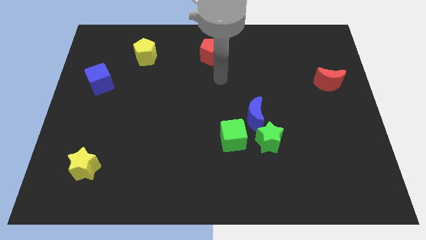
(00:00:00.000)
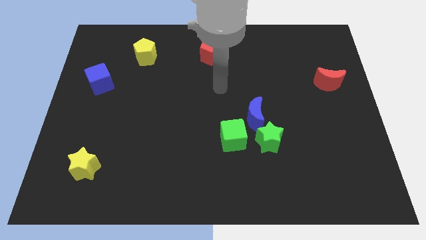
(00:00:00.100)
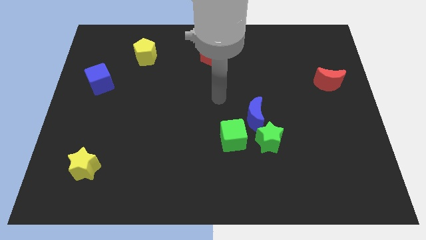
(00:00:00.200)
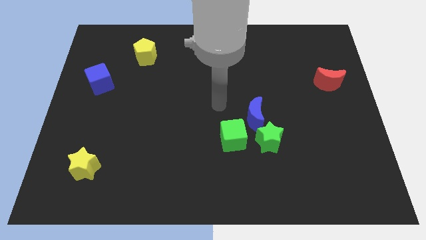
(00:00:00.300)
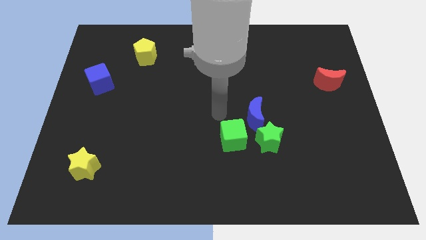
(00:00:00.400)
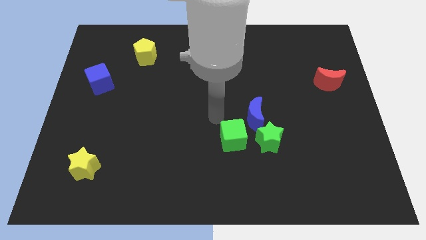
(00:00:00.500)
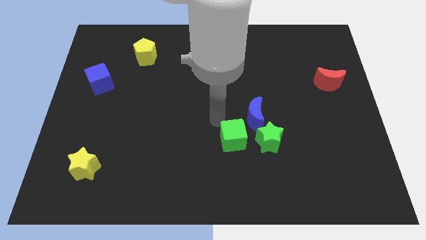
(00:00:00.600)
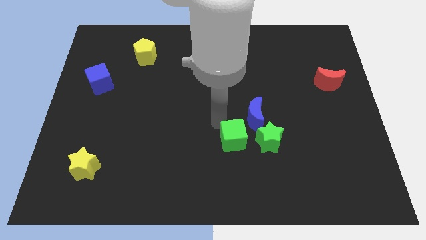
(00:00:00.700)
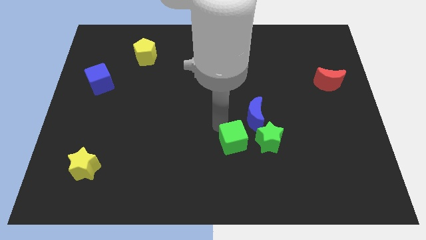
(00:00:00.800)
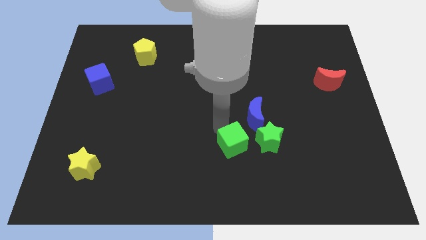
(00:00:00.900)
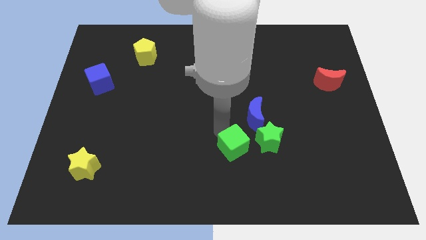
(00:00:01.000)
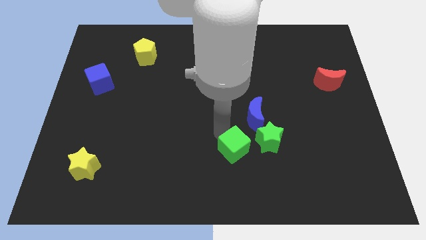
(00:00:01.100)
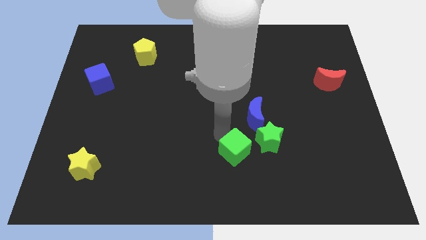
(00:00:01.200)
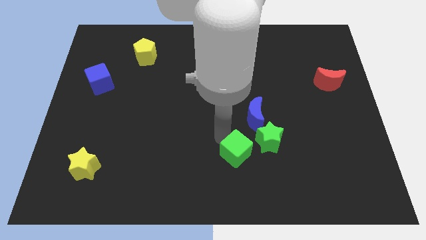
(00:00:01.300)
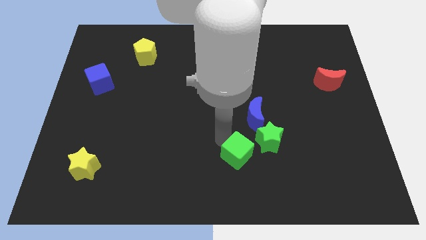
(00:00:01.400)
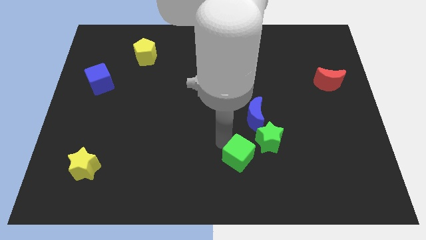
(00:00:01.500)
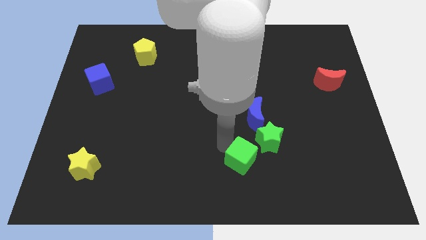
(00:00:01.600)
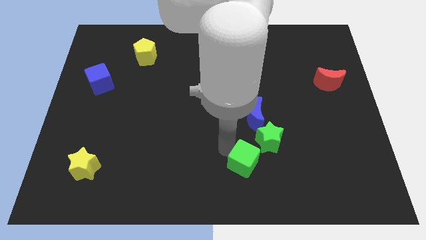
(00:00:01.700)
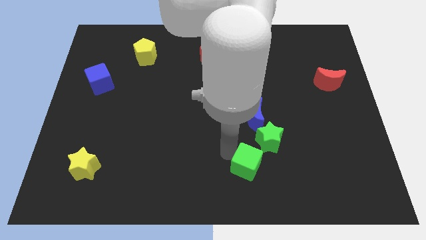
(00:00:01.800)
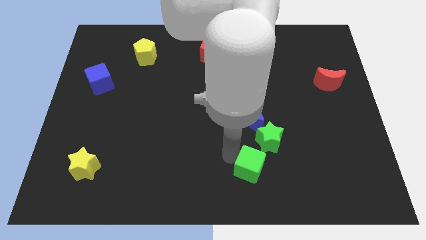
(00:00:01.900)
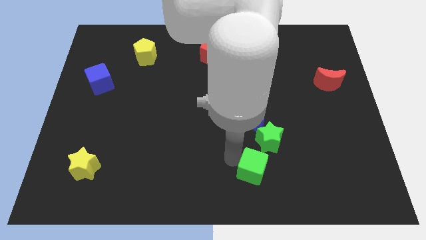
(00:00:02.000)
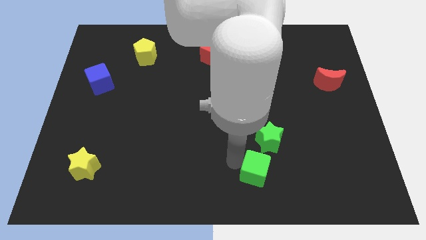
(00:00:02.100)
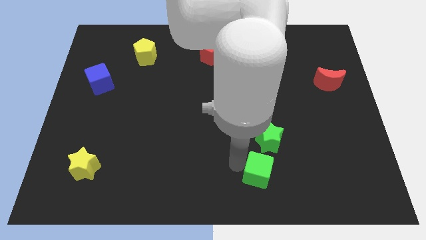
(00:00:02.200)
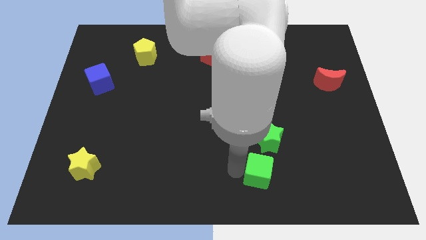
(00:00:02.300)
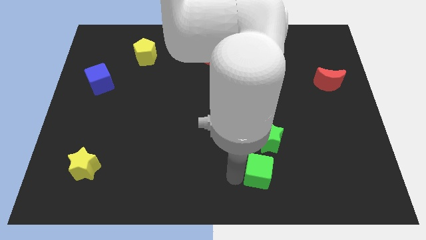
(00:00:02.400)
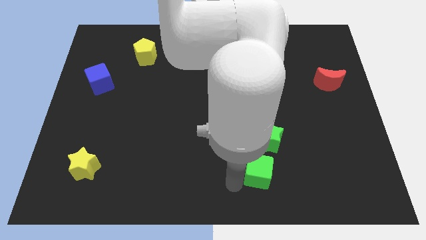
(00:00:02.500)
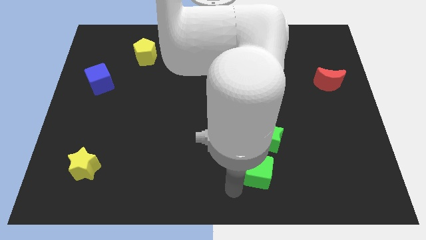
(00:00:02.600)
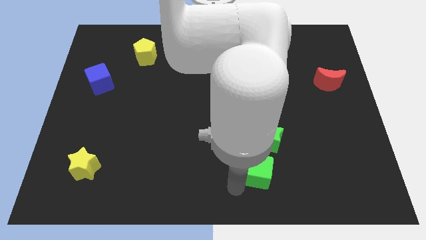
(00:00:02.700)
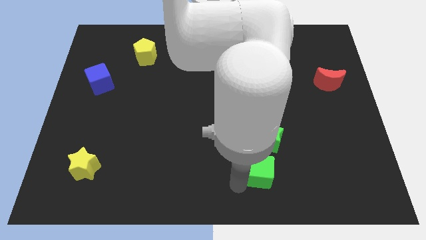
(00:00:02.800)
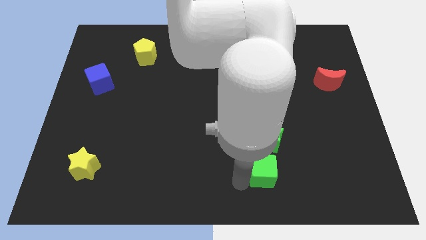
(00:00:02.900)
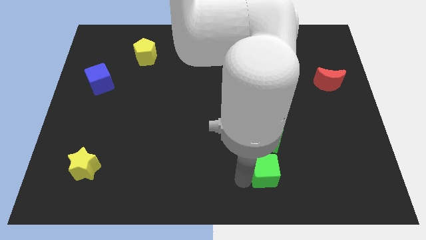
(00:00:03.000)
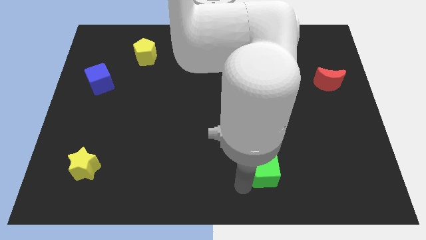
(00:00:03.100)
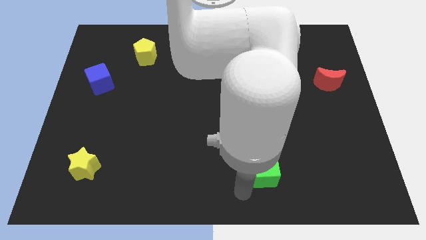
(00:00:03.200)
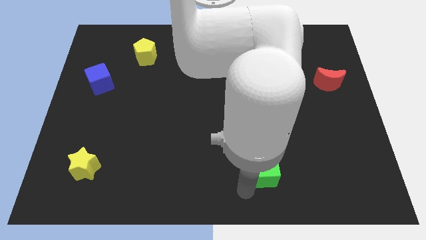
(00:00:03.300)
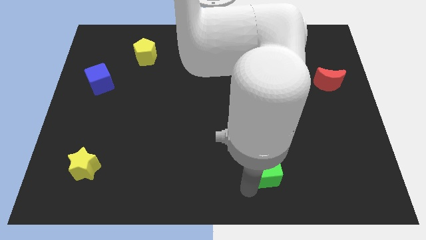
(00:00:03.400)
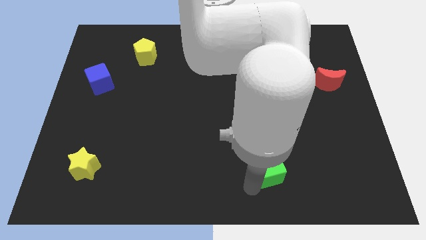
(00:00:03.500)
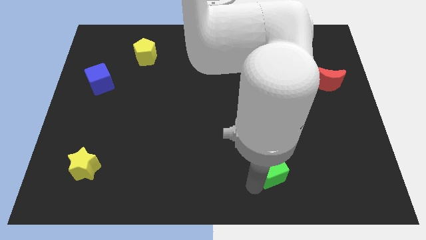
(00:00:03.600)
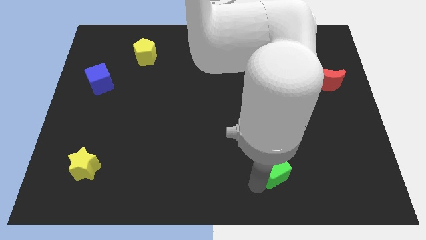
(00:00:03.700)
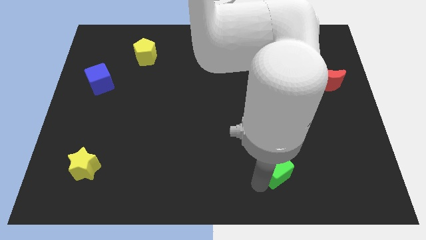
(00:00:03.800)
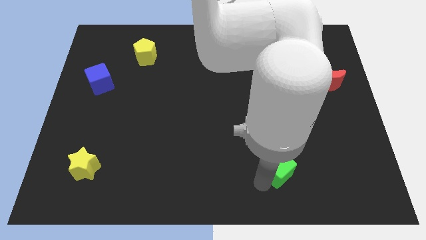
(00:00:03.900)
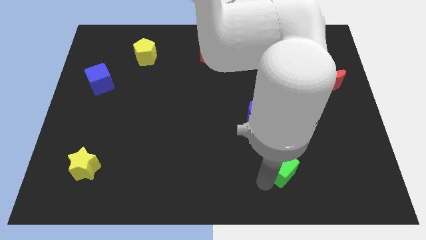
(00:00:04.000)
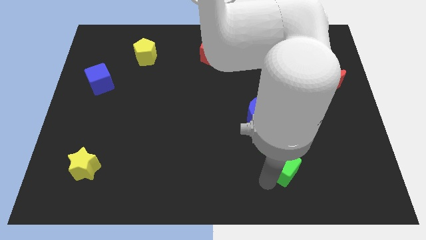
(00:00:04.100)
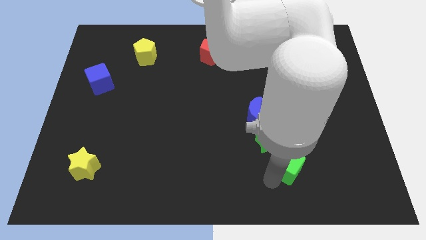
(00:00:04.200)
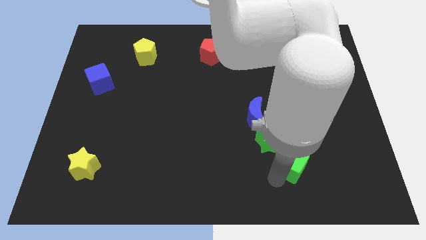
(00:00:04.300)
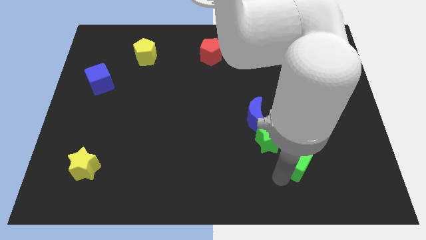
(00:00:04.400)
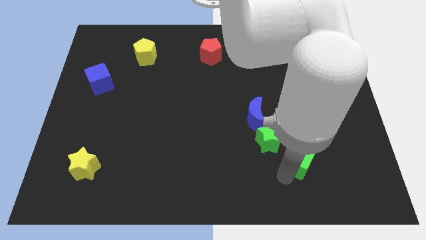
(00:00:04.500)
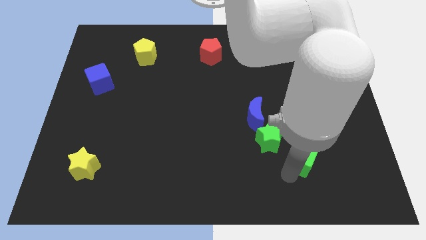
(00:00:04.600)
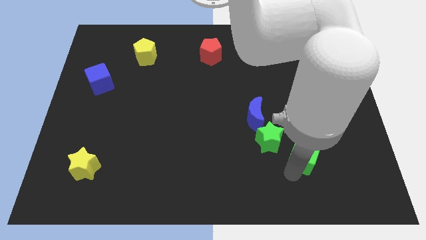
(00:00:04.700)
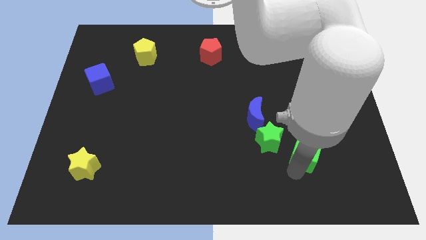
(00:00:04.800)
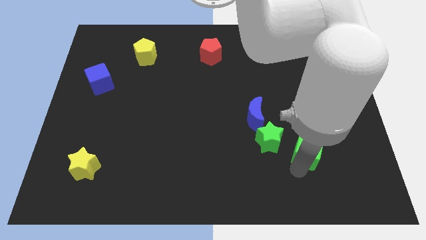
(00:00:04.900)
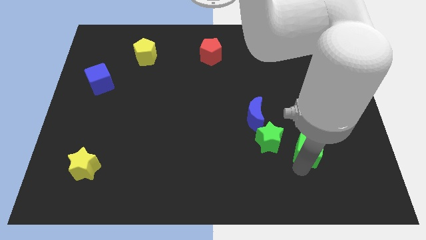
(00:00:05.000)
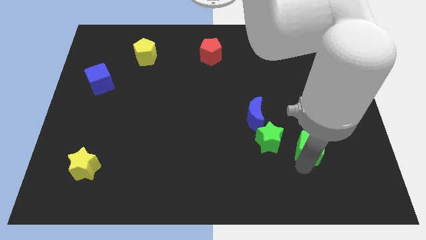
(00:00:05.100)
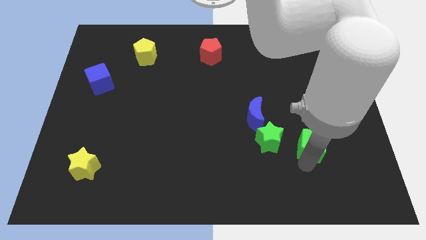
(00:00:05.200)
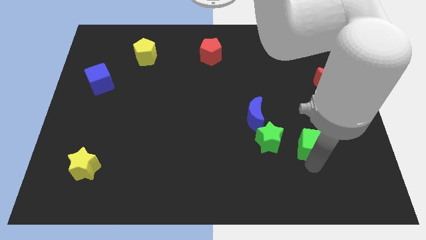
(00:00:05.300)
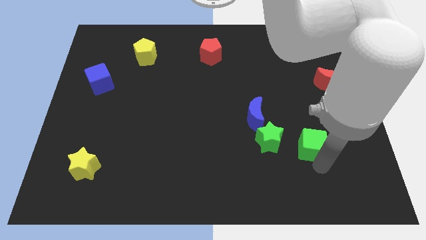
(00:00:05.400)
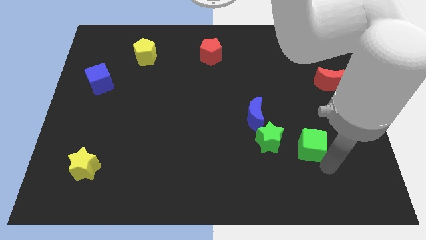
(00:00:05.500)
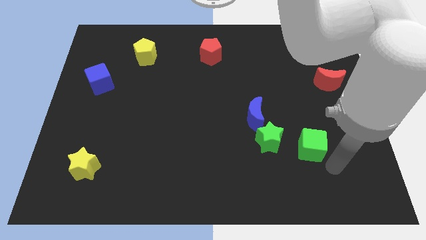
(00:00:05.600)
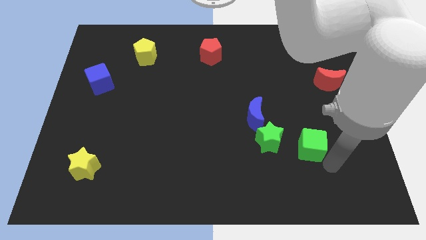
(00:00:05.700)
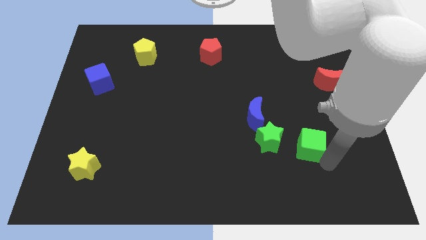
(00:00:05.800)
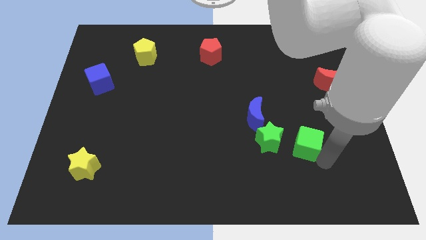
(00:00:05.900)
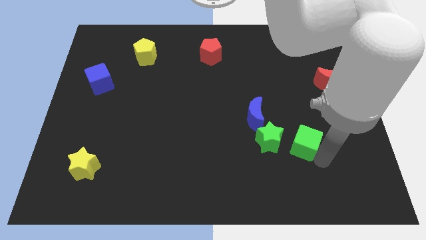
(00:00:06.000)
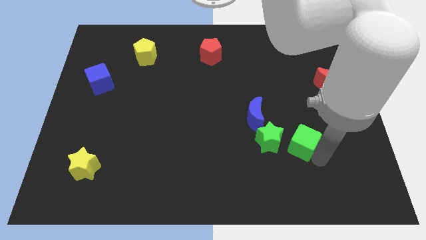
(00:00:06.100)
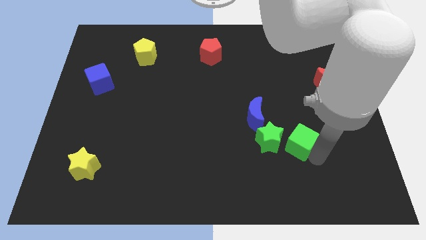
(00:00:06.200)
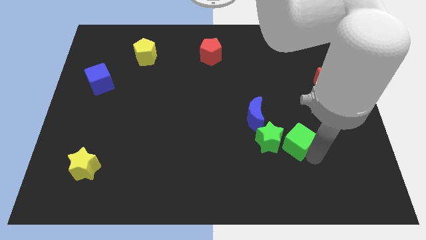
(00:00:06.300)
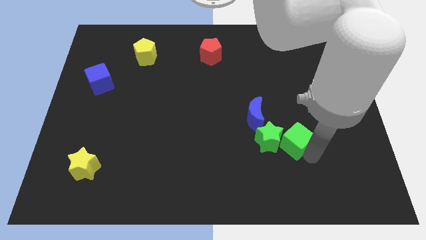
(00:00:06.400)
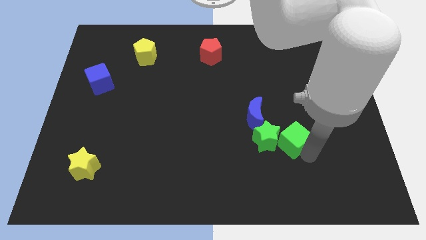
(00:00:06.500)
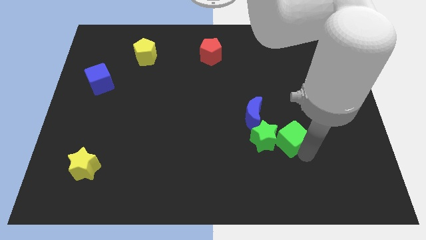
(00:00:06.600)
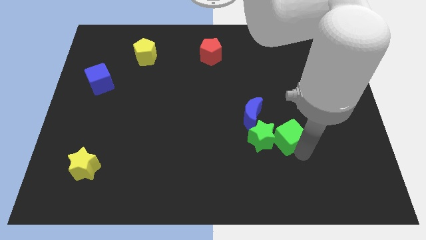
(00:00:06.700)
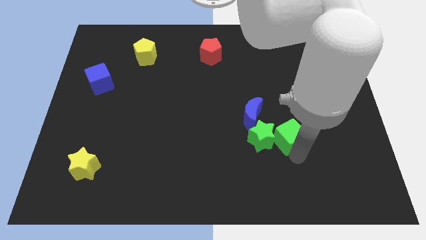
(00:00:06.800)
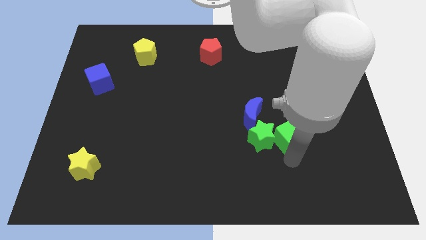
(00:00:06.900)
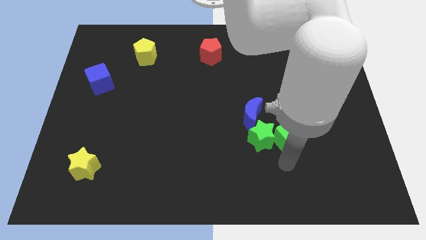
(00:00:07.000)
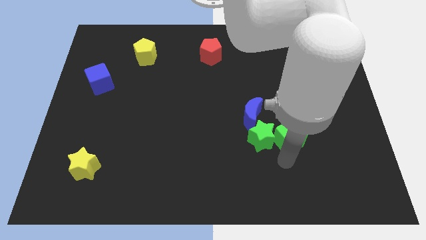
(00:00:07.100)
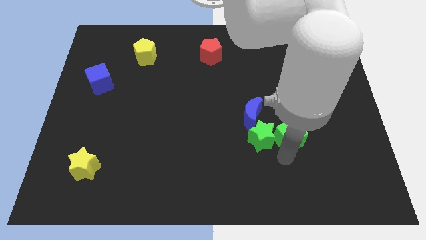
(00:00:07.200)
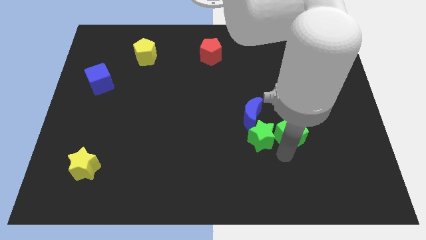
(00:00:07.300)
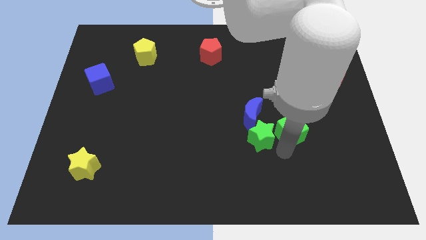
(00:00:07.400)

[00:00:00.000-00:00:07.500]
slide the green cube slightly upwards and to the right diagonally

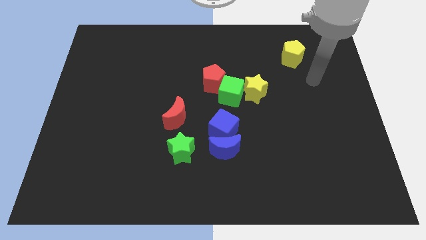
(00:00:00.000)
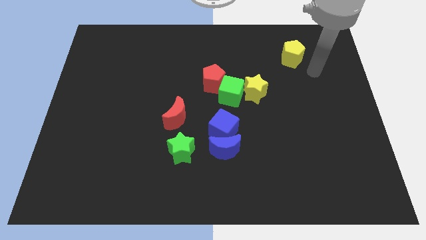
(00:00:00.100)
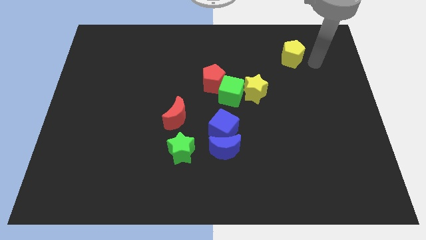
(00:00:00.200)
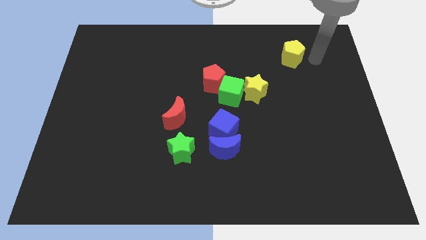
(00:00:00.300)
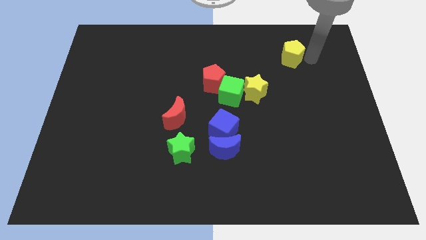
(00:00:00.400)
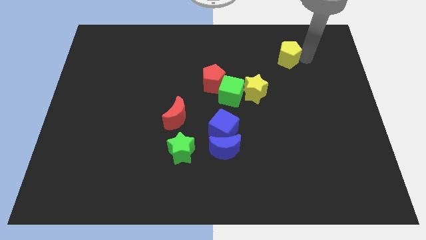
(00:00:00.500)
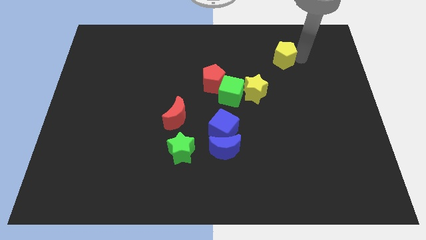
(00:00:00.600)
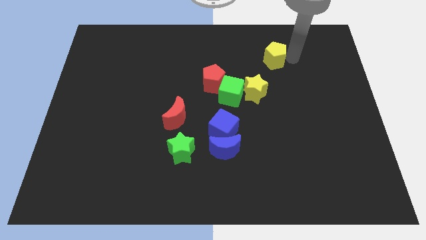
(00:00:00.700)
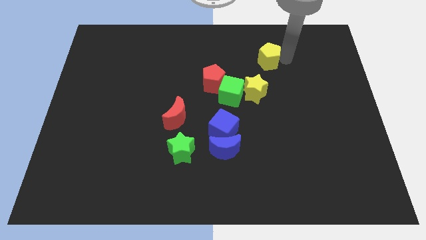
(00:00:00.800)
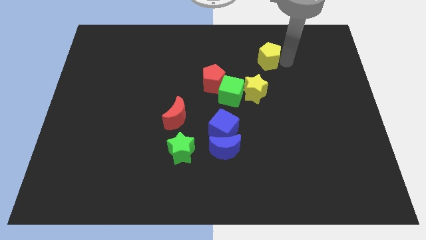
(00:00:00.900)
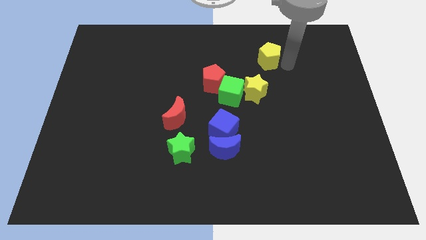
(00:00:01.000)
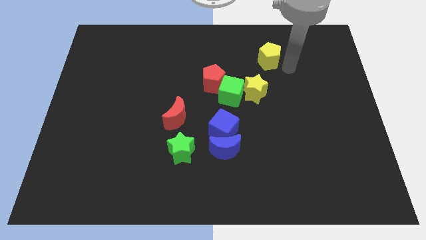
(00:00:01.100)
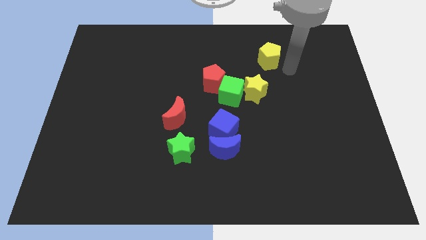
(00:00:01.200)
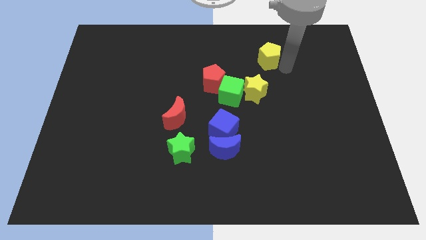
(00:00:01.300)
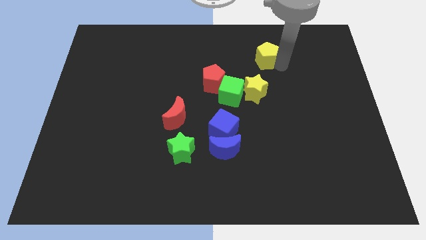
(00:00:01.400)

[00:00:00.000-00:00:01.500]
slightly push the yellow pentagon to the left
